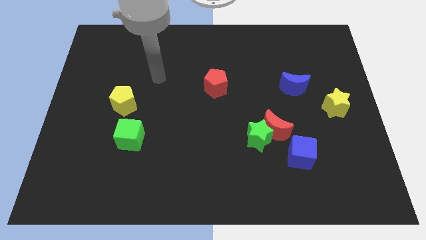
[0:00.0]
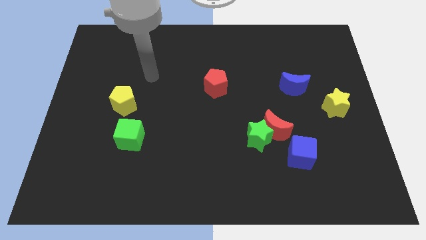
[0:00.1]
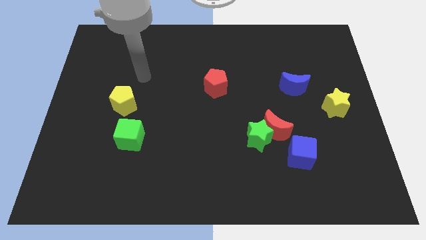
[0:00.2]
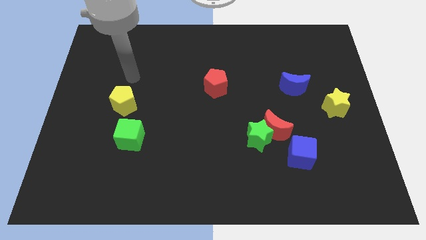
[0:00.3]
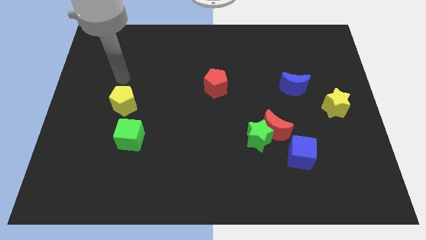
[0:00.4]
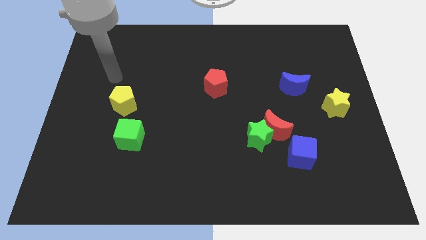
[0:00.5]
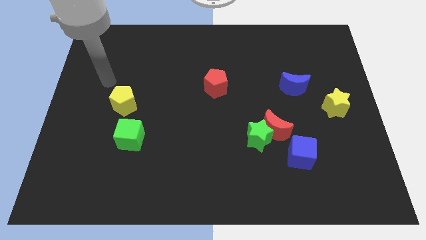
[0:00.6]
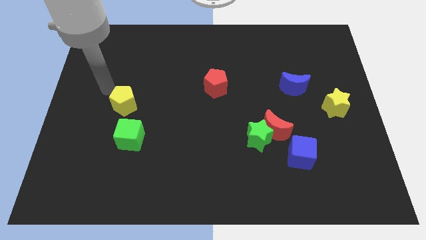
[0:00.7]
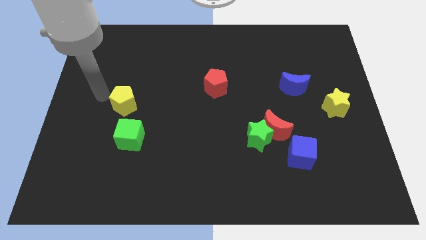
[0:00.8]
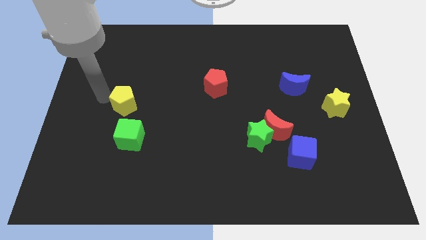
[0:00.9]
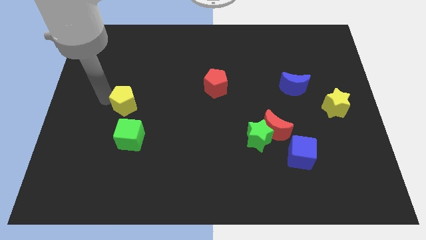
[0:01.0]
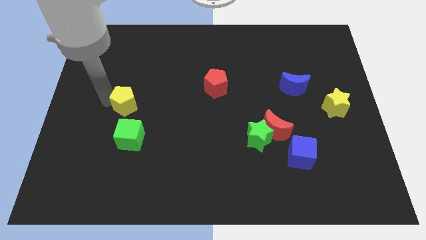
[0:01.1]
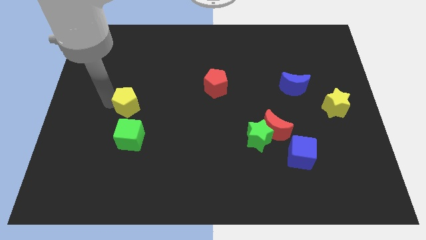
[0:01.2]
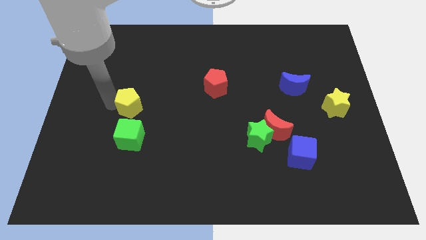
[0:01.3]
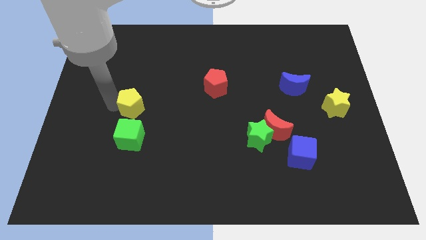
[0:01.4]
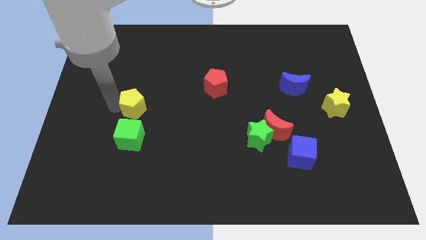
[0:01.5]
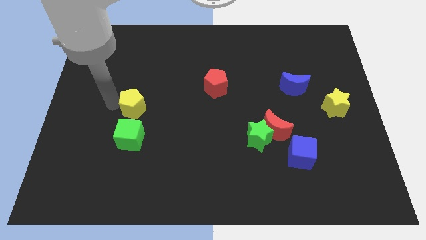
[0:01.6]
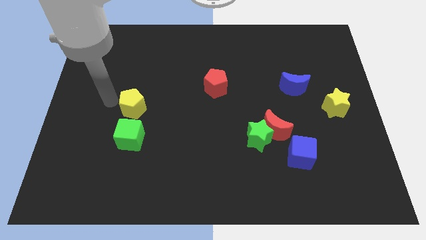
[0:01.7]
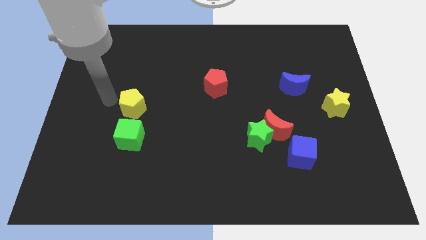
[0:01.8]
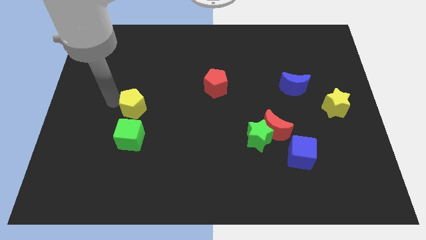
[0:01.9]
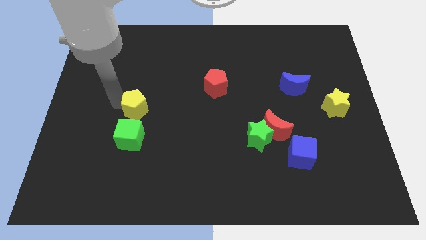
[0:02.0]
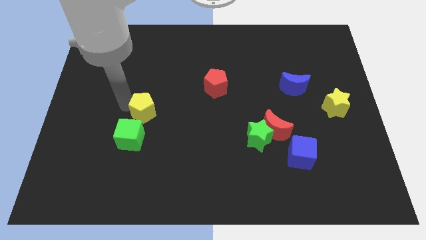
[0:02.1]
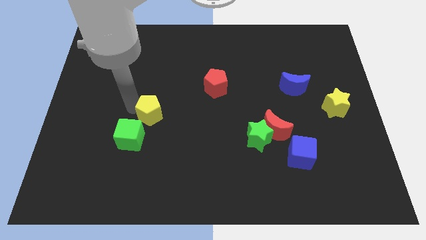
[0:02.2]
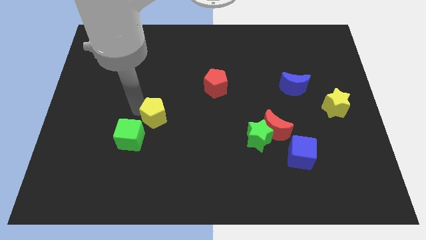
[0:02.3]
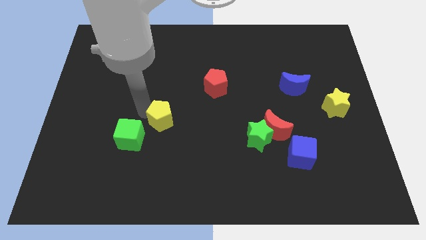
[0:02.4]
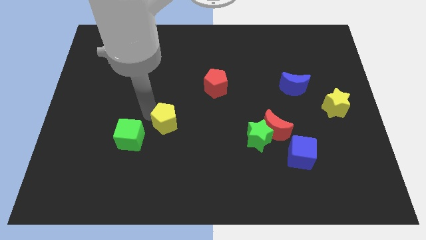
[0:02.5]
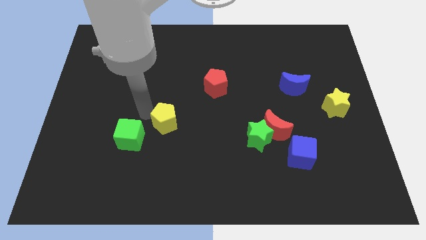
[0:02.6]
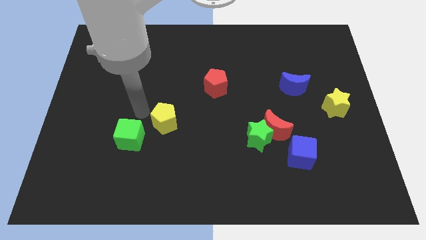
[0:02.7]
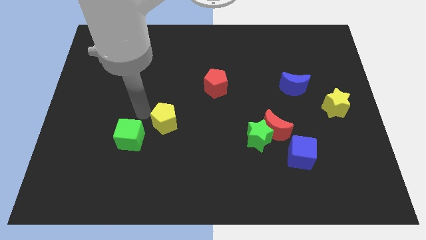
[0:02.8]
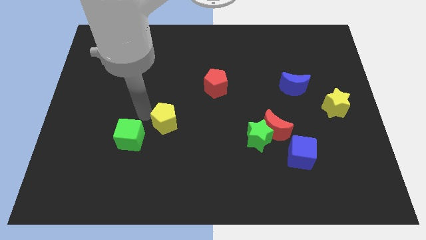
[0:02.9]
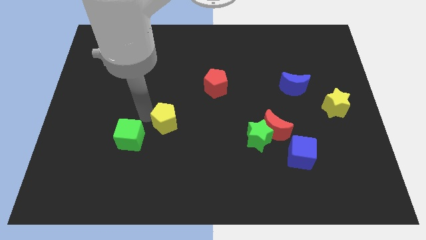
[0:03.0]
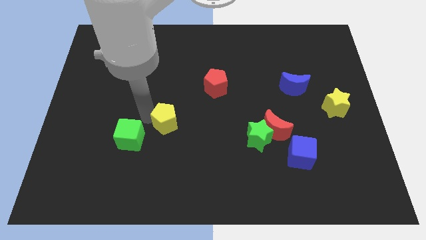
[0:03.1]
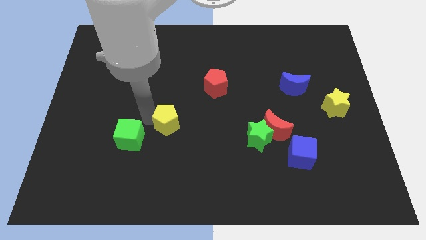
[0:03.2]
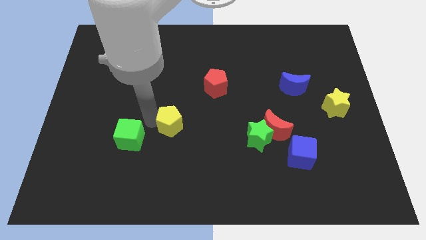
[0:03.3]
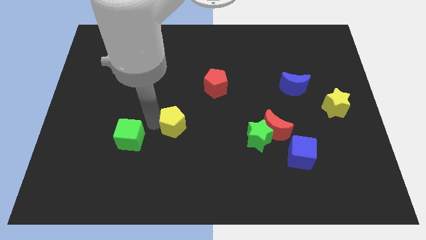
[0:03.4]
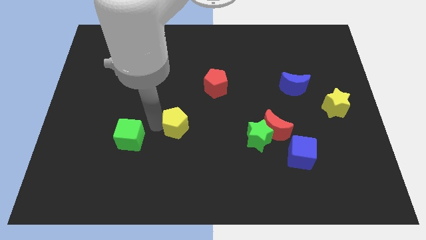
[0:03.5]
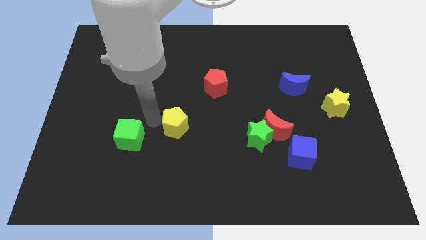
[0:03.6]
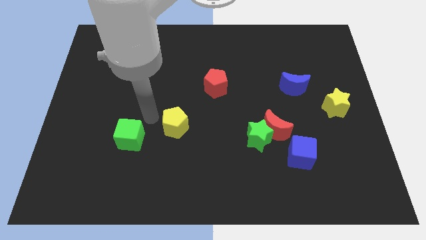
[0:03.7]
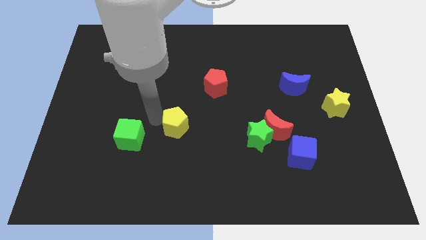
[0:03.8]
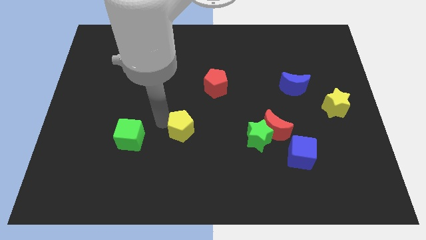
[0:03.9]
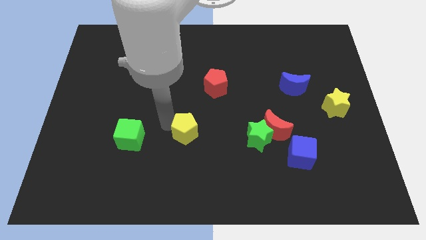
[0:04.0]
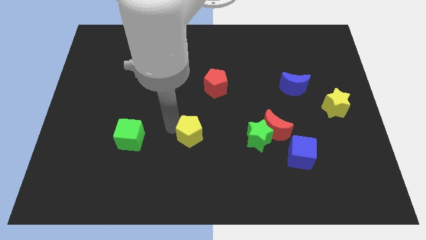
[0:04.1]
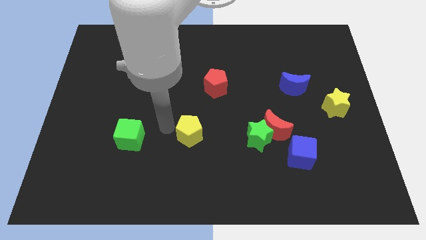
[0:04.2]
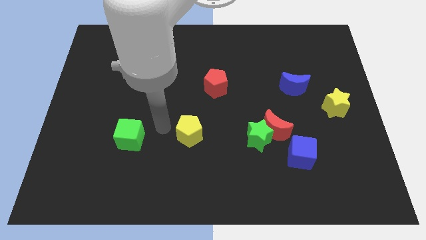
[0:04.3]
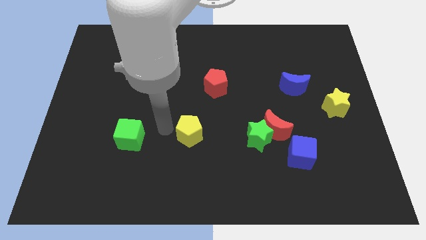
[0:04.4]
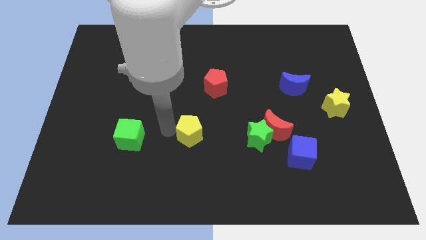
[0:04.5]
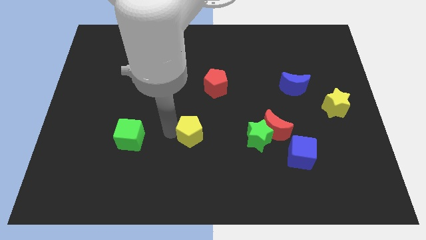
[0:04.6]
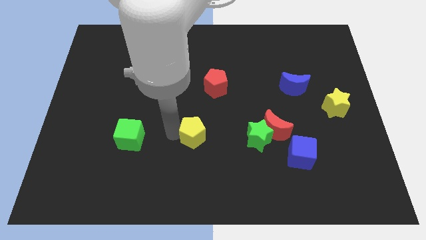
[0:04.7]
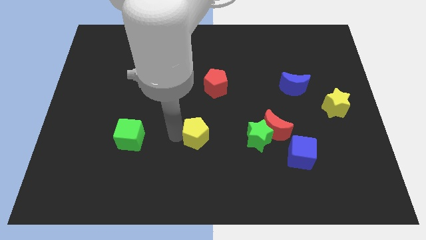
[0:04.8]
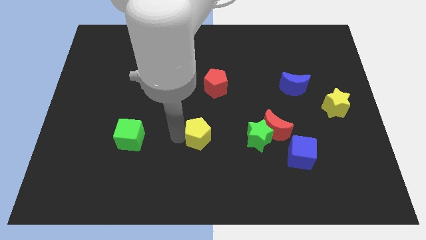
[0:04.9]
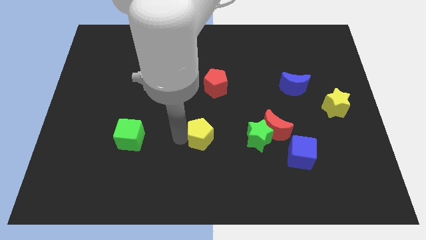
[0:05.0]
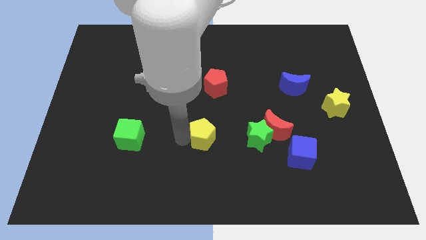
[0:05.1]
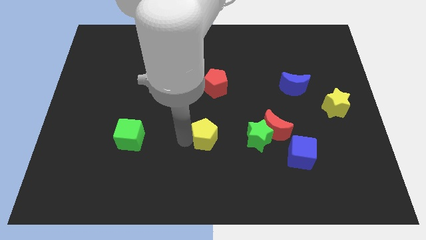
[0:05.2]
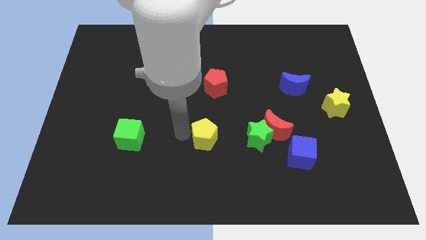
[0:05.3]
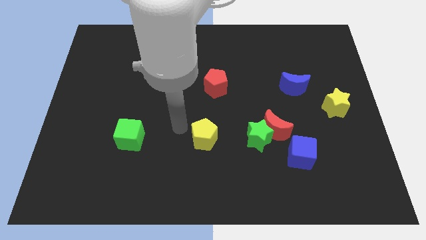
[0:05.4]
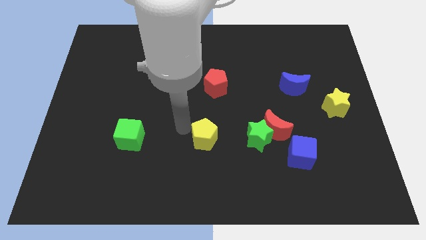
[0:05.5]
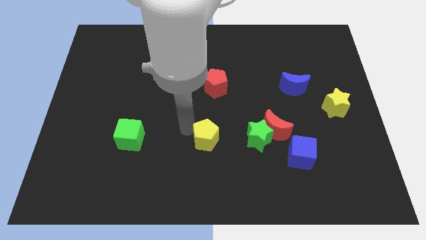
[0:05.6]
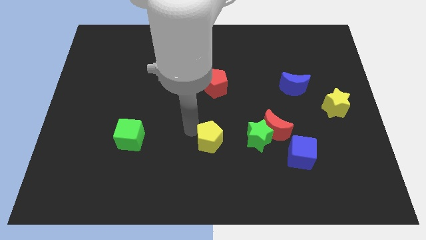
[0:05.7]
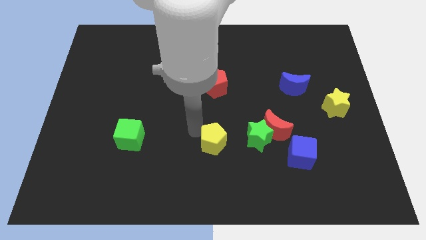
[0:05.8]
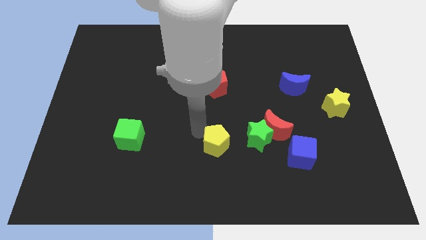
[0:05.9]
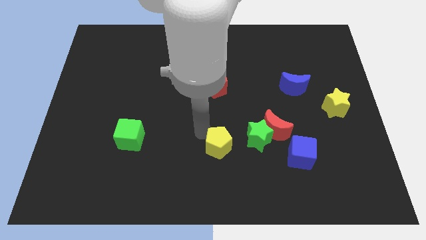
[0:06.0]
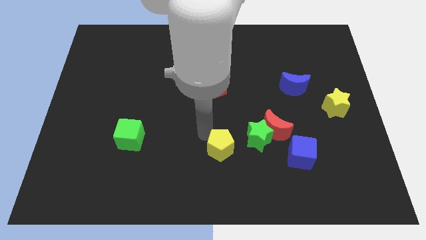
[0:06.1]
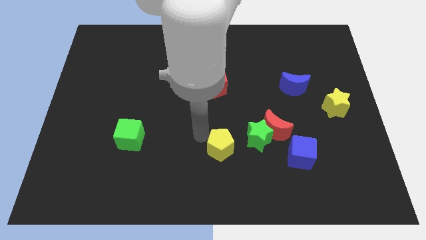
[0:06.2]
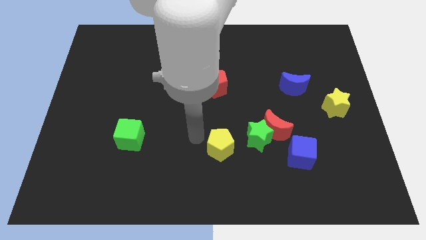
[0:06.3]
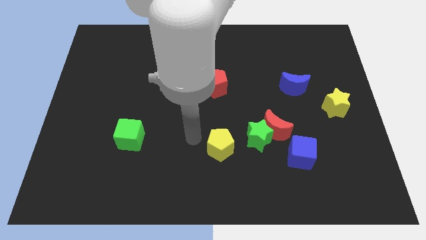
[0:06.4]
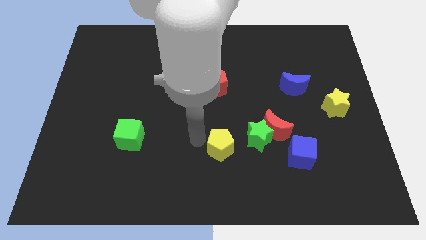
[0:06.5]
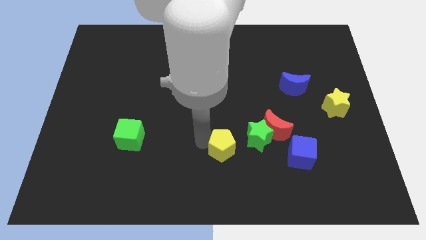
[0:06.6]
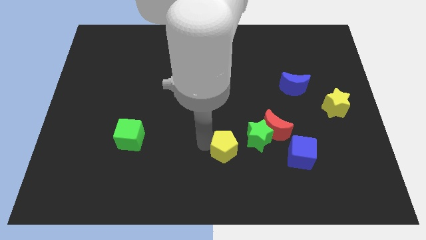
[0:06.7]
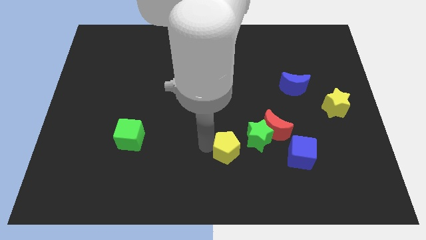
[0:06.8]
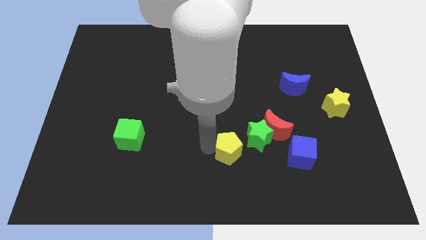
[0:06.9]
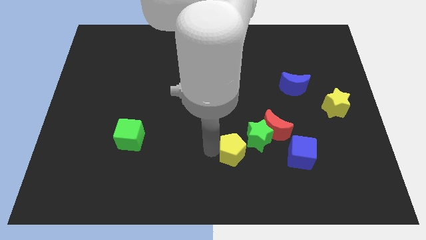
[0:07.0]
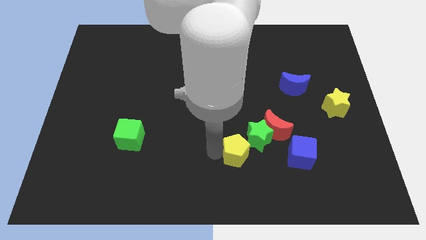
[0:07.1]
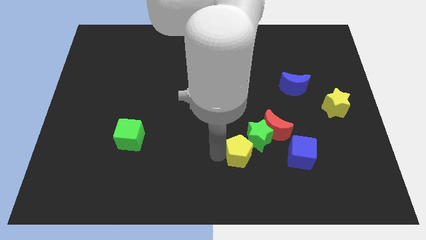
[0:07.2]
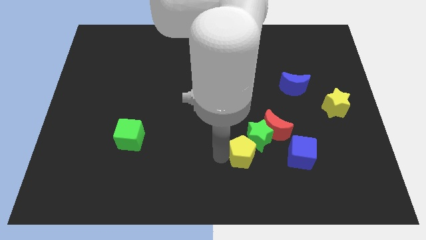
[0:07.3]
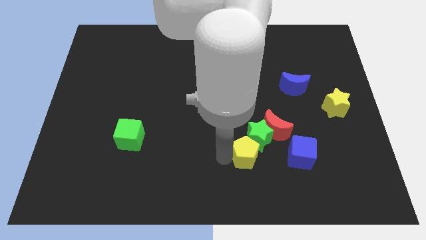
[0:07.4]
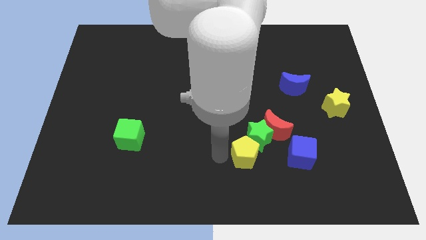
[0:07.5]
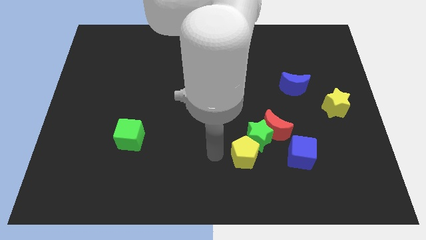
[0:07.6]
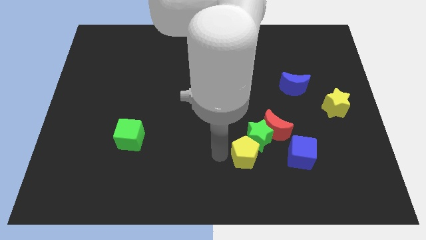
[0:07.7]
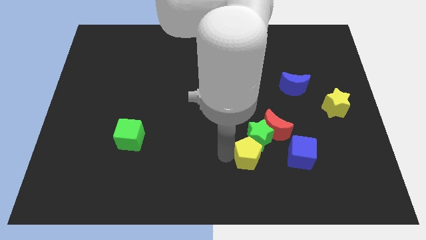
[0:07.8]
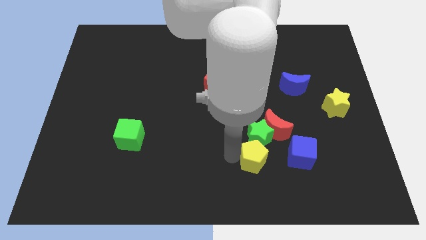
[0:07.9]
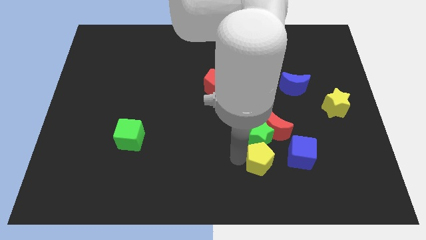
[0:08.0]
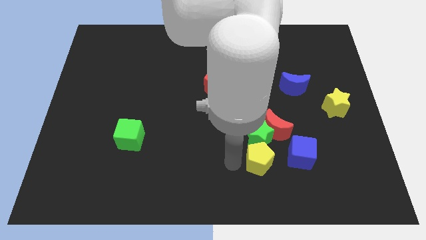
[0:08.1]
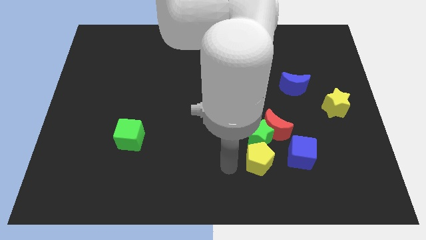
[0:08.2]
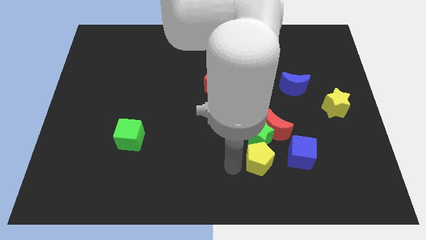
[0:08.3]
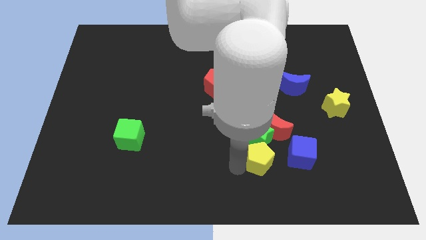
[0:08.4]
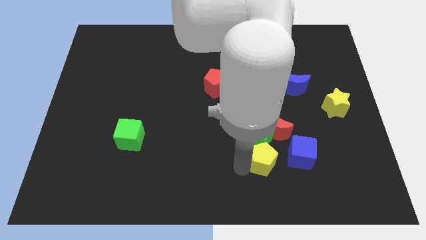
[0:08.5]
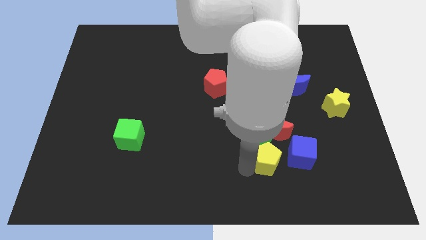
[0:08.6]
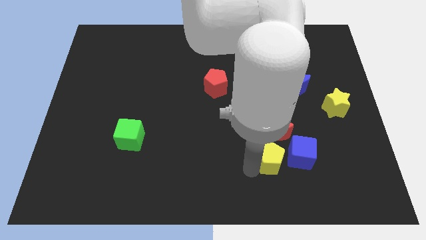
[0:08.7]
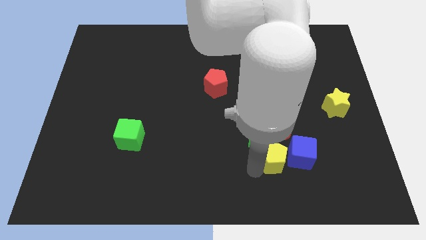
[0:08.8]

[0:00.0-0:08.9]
push the yellow pentagon to the blue cube
